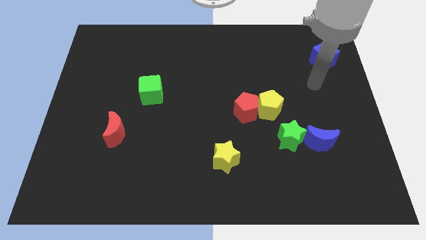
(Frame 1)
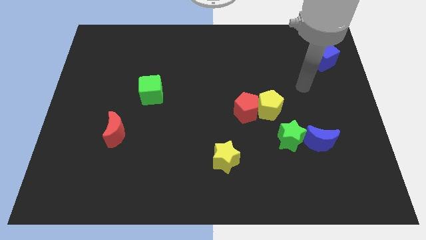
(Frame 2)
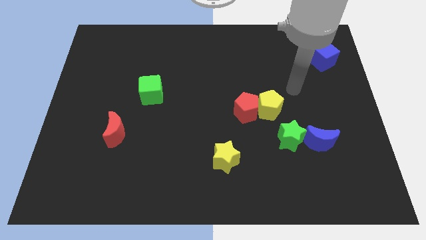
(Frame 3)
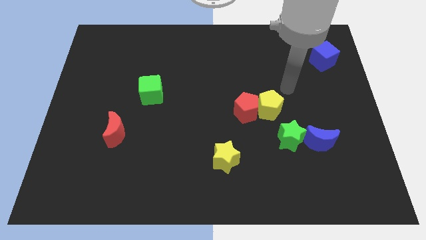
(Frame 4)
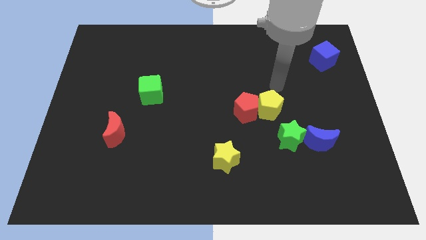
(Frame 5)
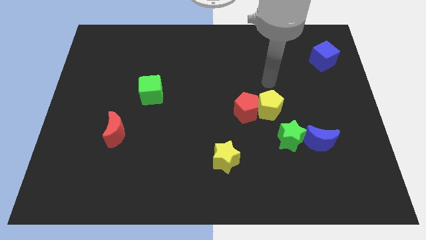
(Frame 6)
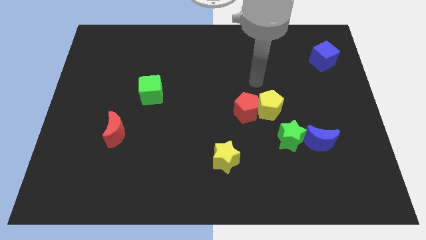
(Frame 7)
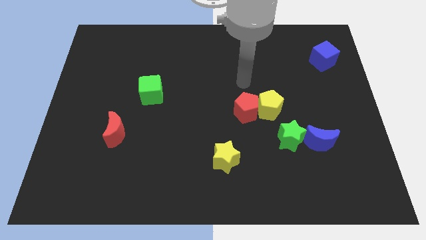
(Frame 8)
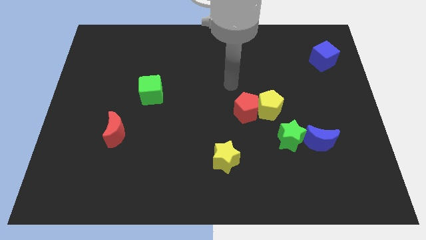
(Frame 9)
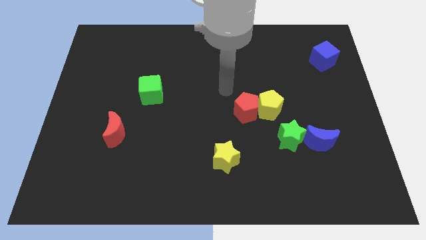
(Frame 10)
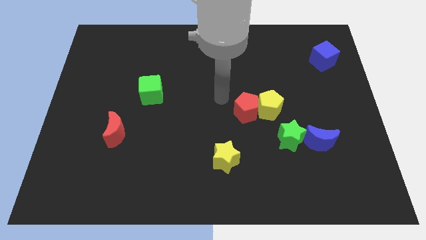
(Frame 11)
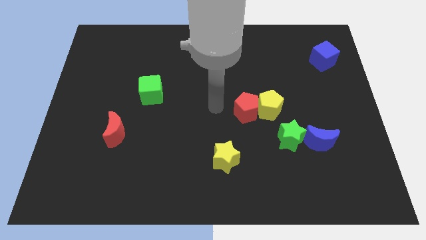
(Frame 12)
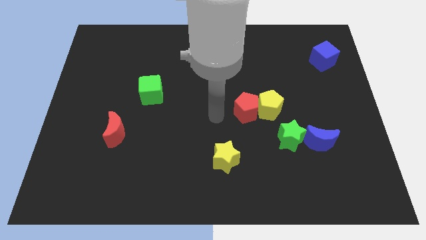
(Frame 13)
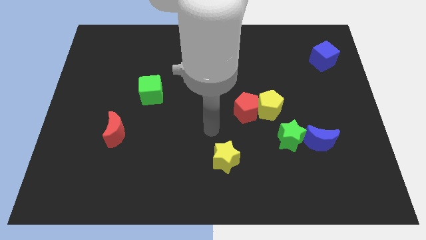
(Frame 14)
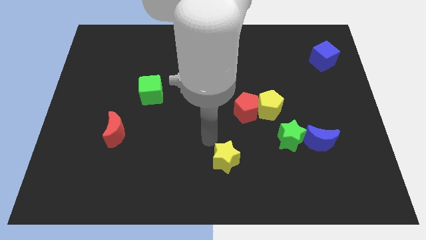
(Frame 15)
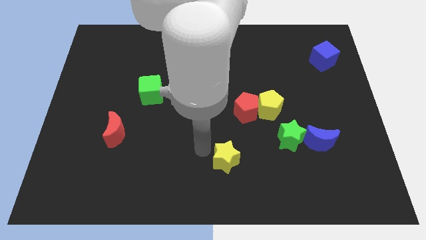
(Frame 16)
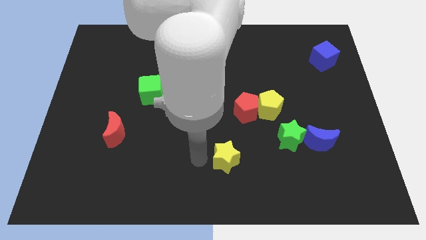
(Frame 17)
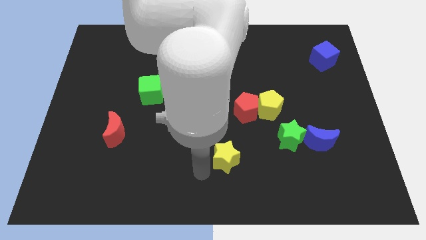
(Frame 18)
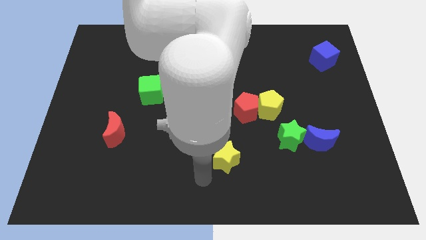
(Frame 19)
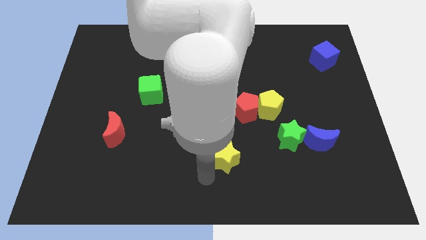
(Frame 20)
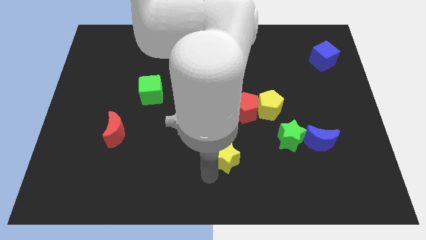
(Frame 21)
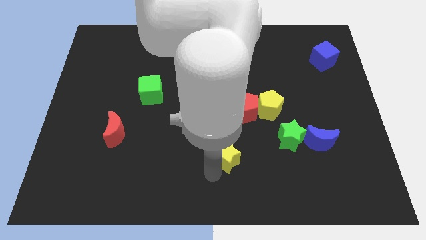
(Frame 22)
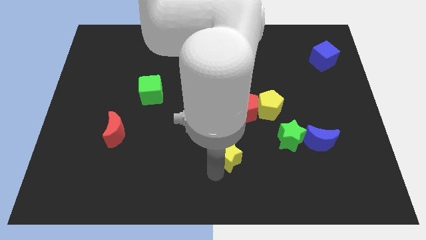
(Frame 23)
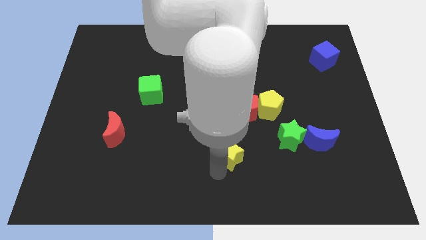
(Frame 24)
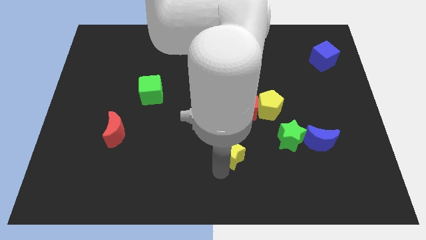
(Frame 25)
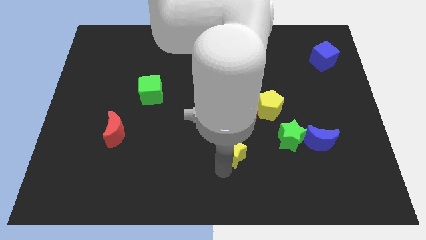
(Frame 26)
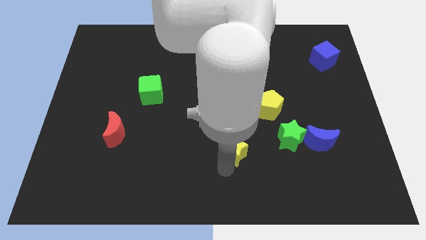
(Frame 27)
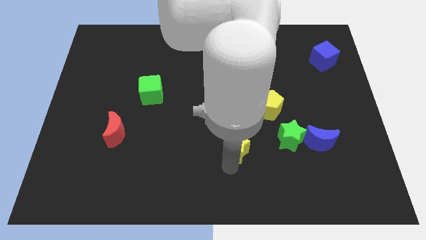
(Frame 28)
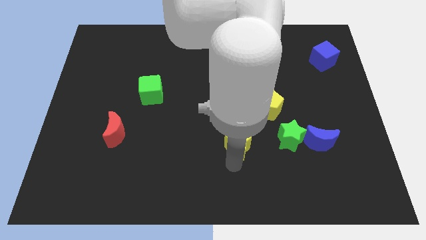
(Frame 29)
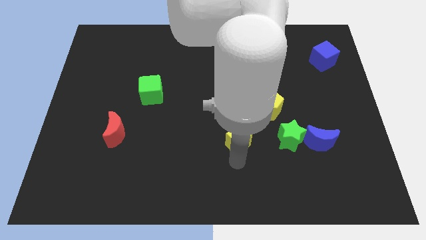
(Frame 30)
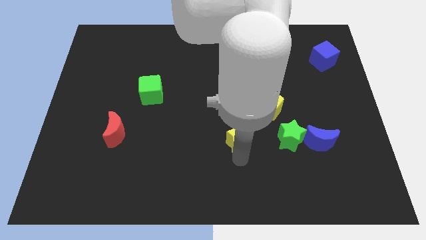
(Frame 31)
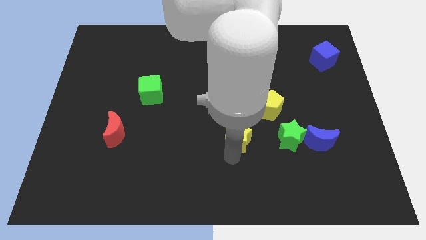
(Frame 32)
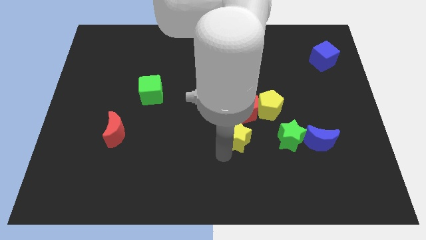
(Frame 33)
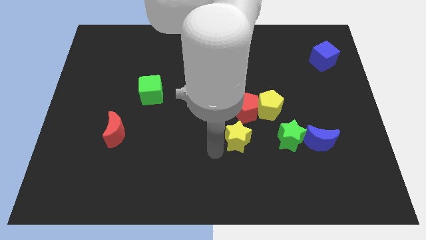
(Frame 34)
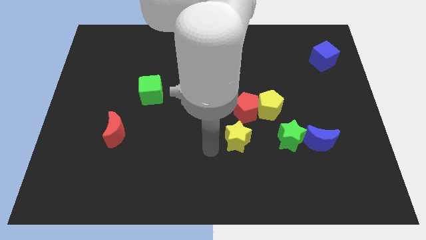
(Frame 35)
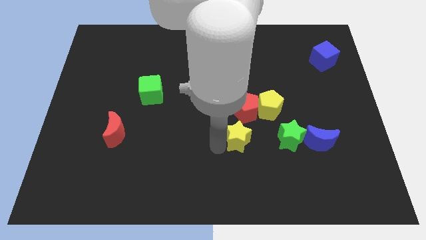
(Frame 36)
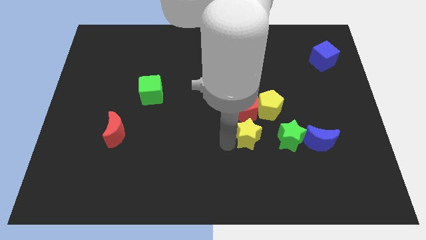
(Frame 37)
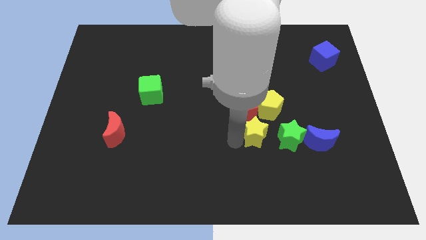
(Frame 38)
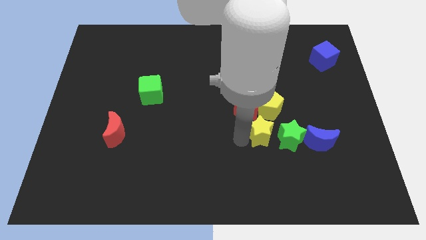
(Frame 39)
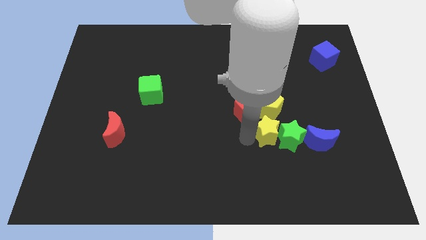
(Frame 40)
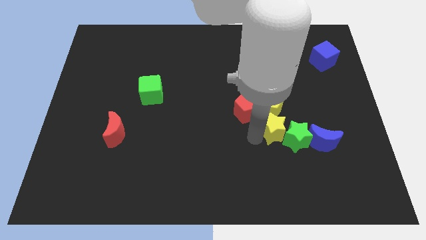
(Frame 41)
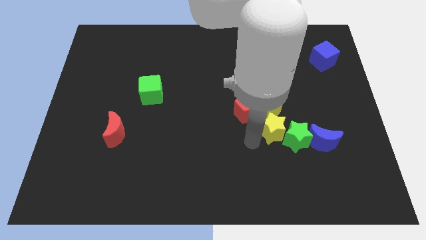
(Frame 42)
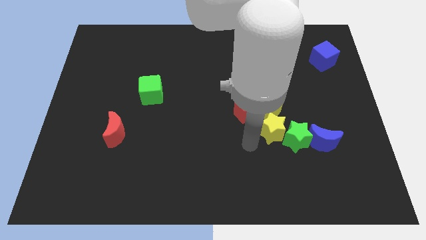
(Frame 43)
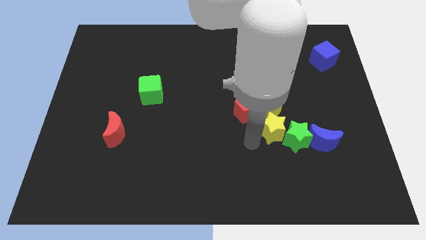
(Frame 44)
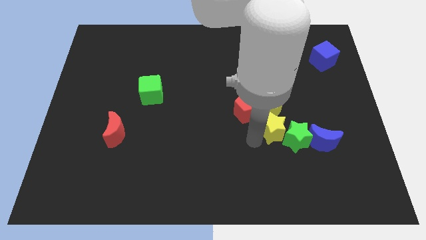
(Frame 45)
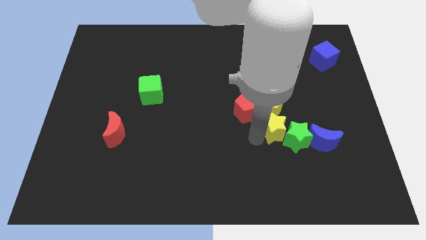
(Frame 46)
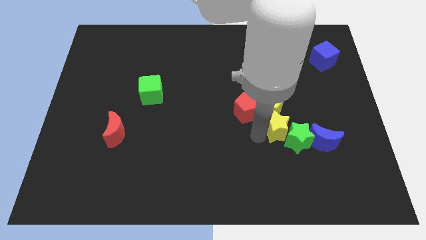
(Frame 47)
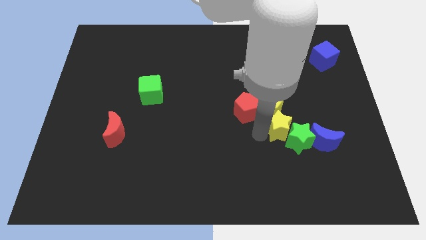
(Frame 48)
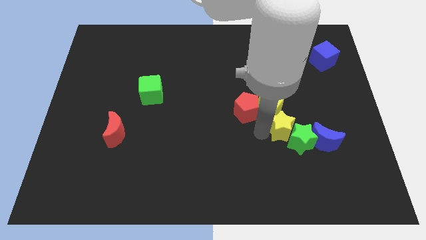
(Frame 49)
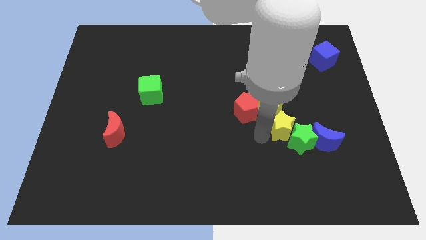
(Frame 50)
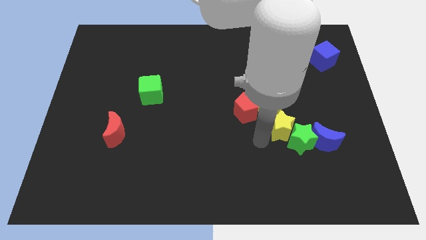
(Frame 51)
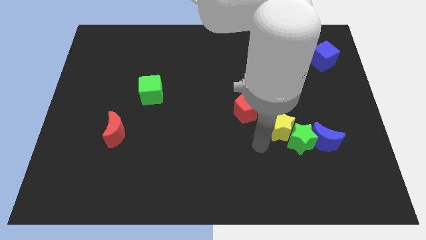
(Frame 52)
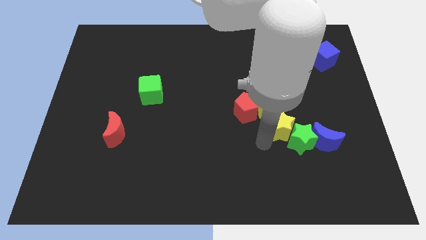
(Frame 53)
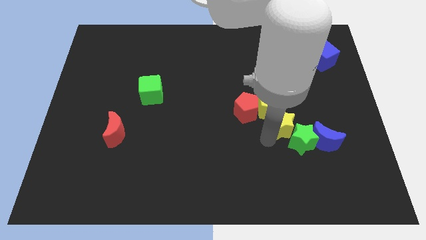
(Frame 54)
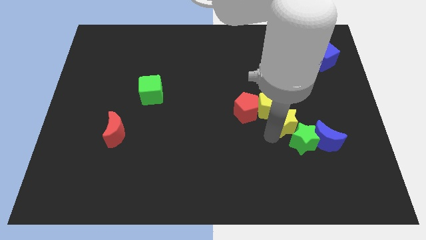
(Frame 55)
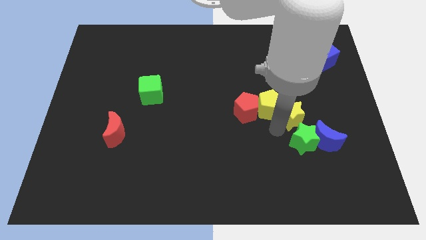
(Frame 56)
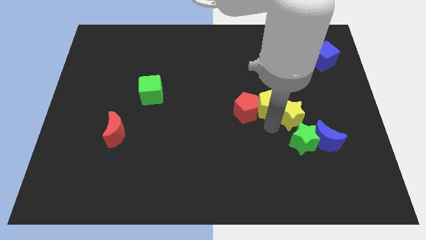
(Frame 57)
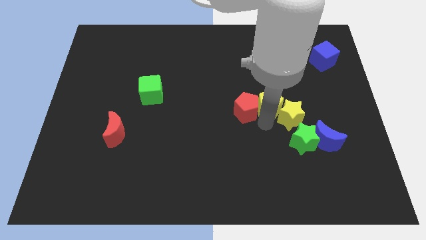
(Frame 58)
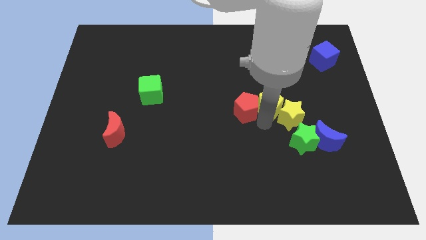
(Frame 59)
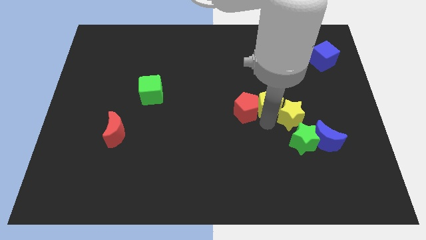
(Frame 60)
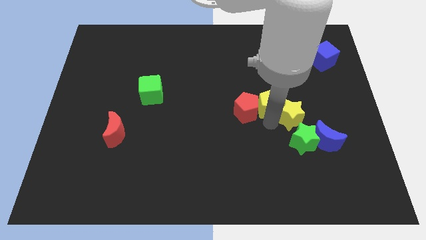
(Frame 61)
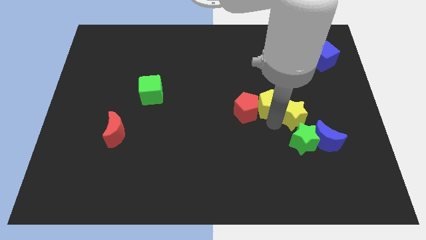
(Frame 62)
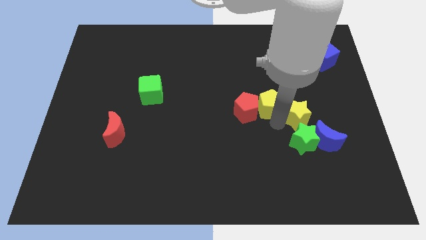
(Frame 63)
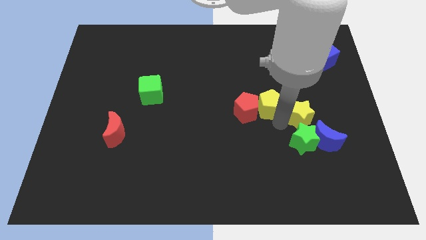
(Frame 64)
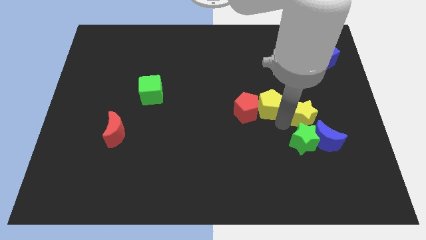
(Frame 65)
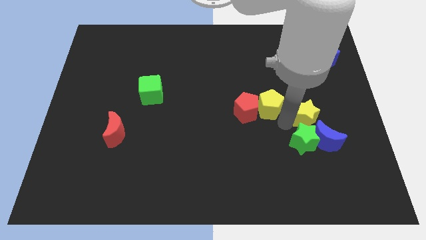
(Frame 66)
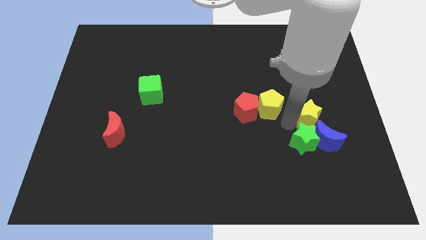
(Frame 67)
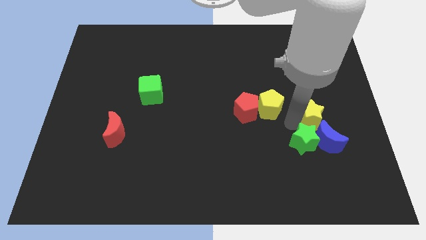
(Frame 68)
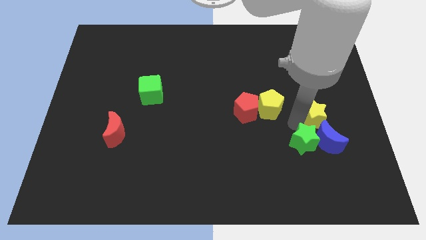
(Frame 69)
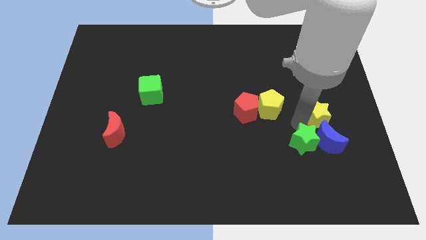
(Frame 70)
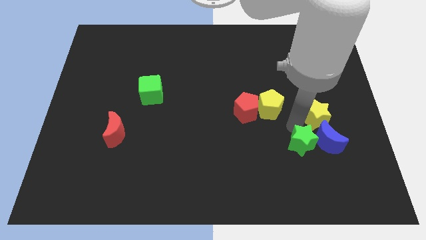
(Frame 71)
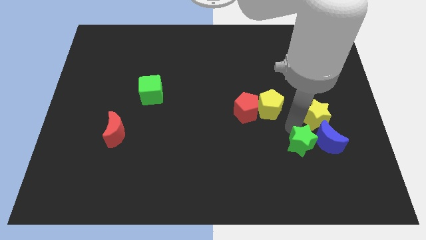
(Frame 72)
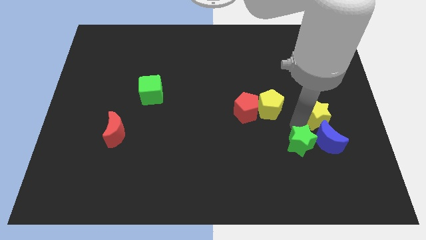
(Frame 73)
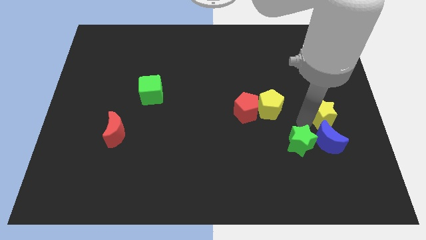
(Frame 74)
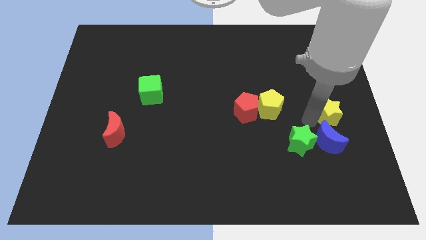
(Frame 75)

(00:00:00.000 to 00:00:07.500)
move the yellow star to the center right
